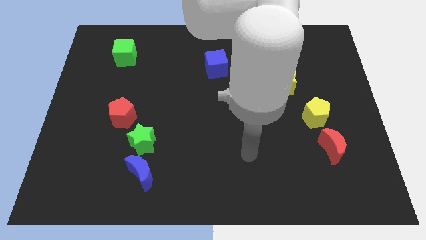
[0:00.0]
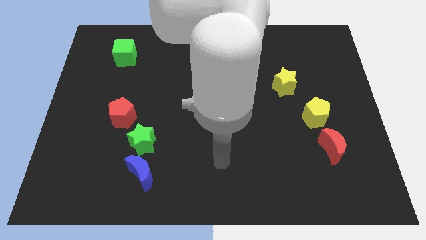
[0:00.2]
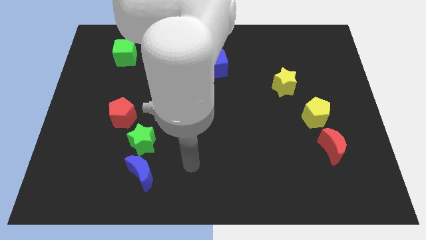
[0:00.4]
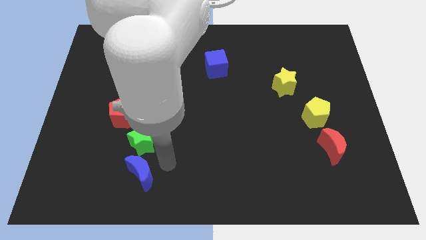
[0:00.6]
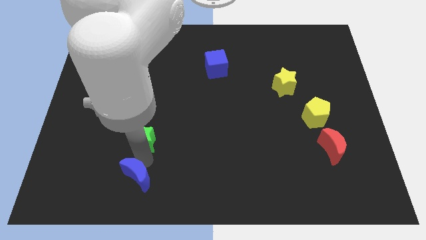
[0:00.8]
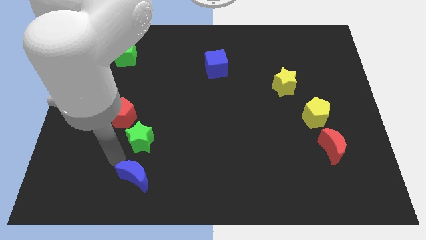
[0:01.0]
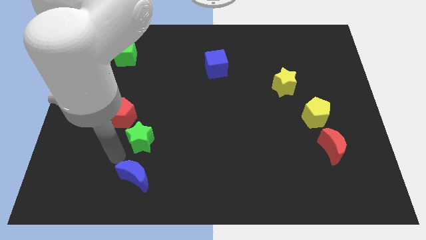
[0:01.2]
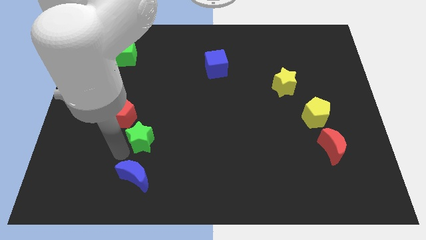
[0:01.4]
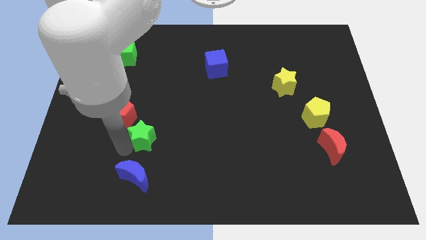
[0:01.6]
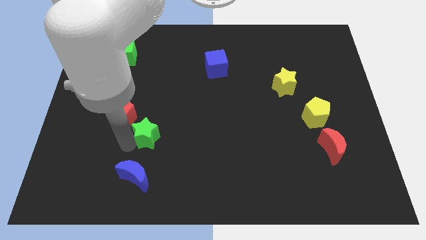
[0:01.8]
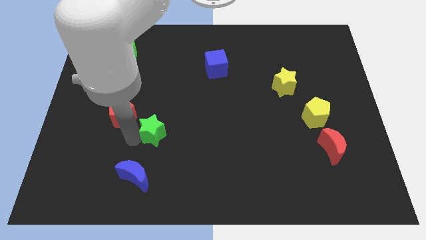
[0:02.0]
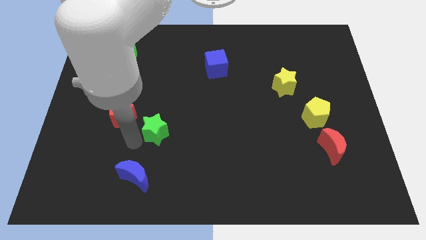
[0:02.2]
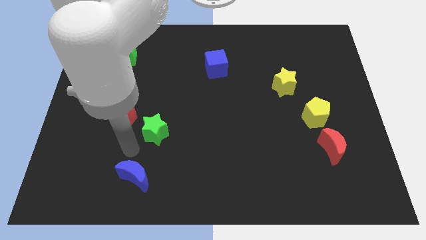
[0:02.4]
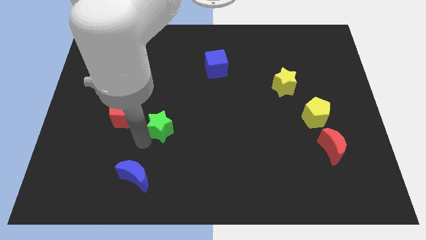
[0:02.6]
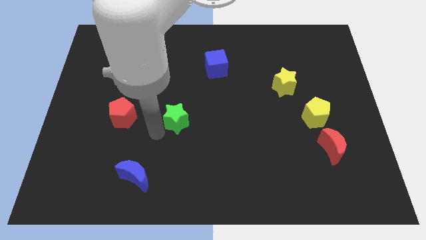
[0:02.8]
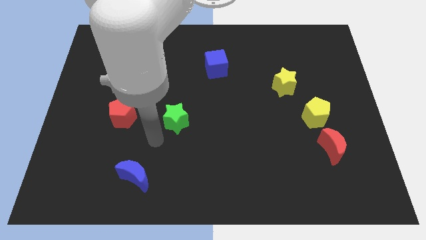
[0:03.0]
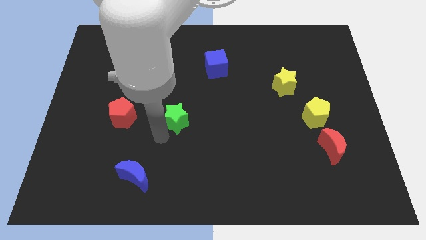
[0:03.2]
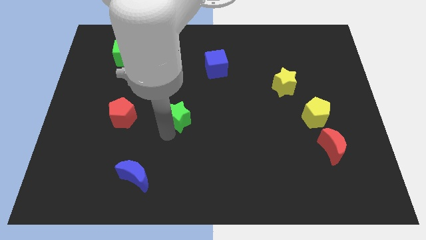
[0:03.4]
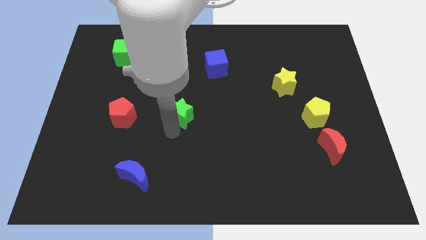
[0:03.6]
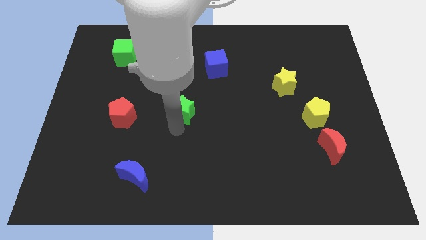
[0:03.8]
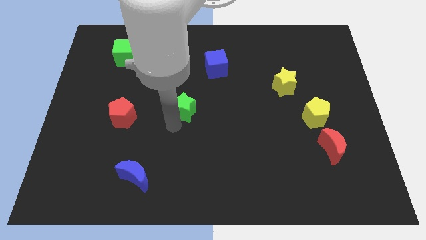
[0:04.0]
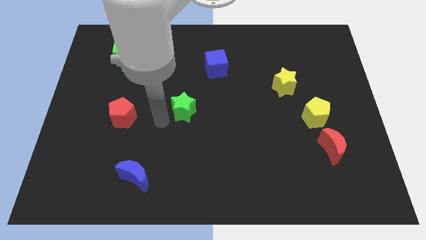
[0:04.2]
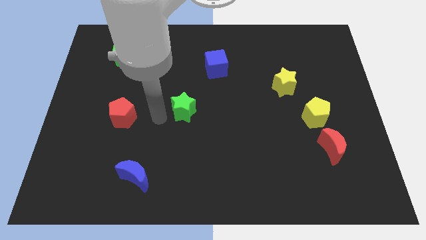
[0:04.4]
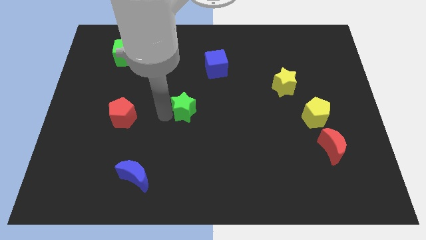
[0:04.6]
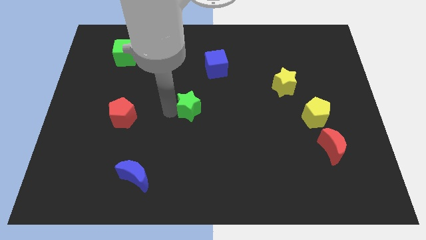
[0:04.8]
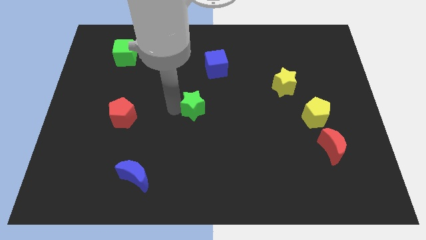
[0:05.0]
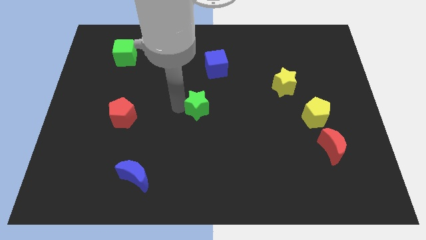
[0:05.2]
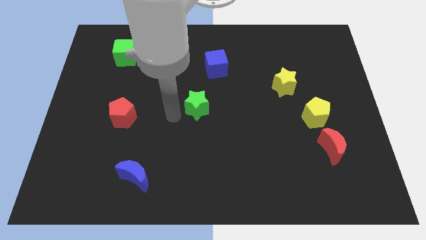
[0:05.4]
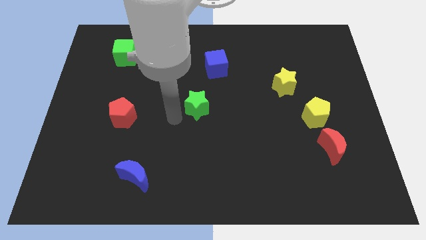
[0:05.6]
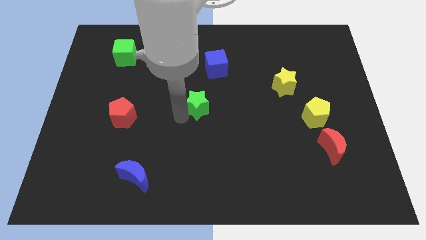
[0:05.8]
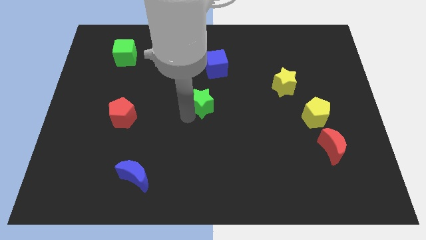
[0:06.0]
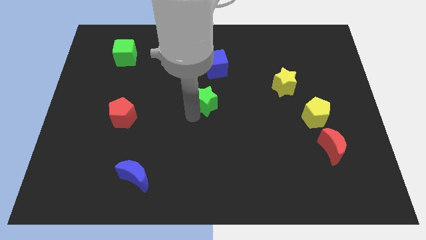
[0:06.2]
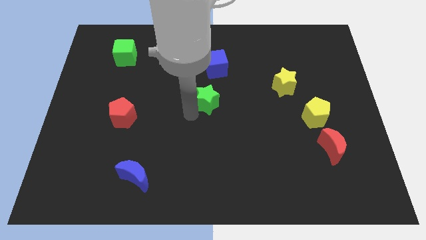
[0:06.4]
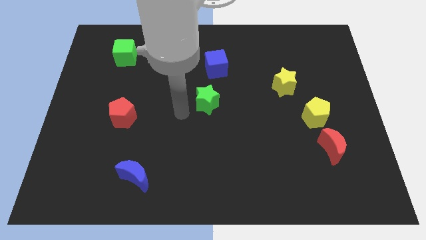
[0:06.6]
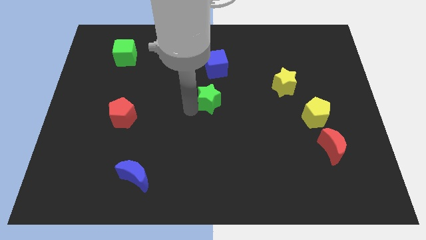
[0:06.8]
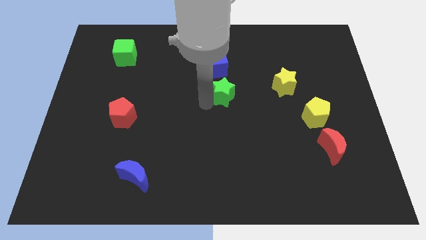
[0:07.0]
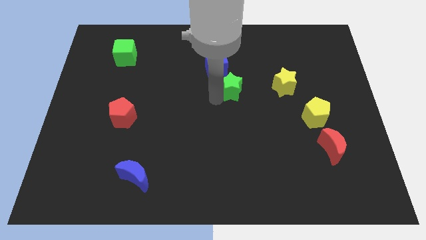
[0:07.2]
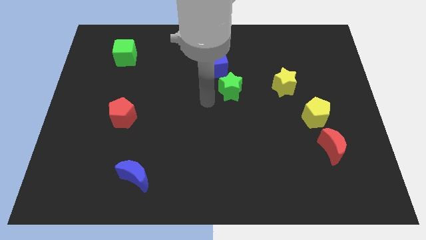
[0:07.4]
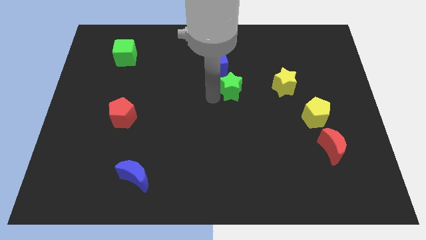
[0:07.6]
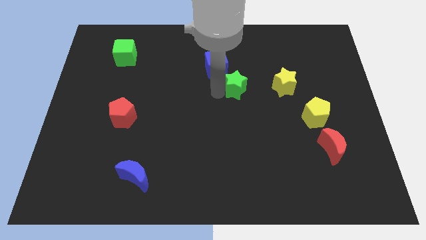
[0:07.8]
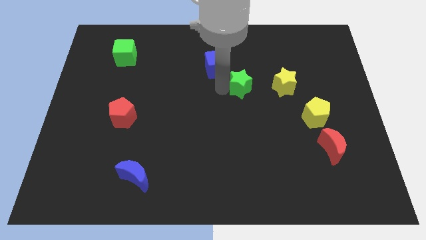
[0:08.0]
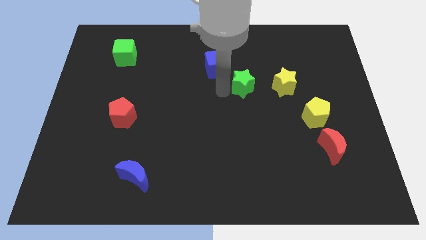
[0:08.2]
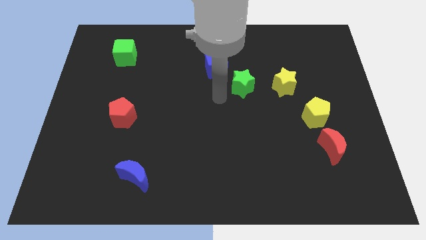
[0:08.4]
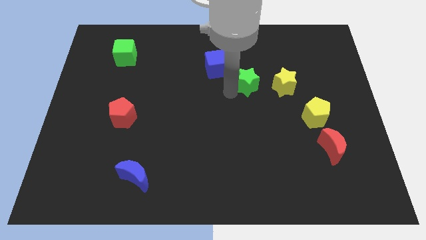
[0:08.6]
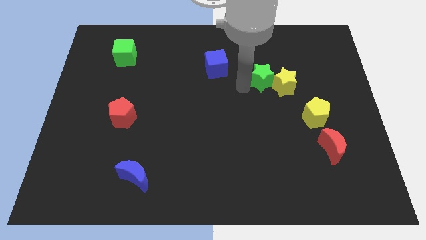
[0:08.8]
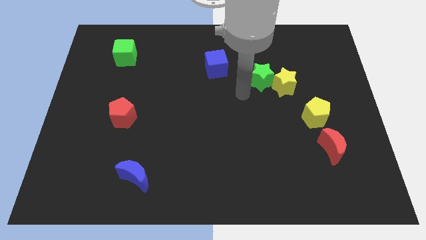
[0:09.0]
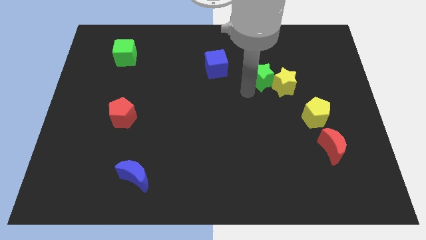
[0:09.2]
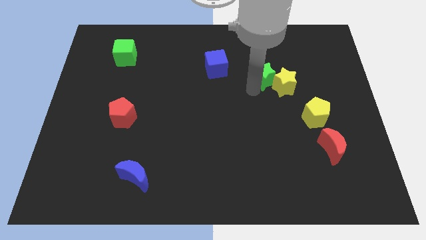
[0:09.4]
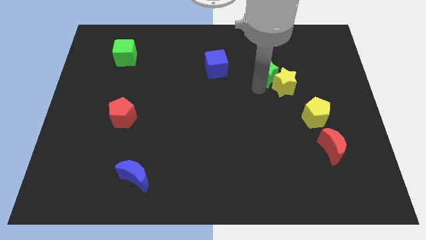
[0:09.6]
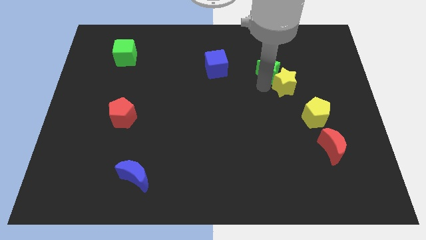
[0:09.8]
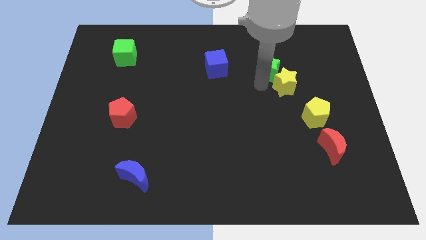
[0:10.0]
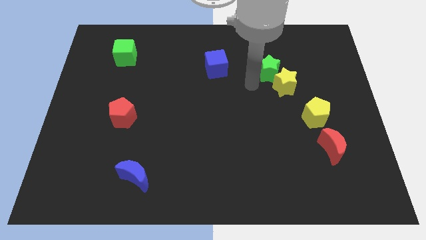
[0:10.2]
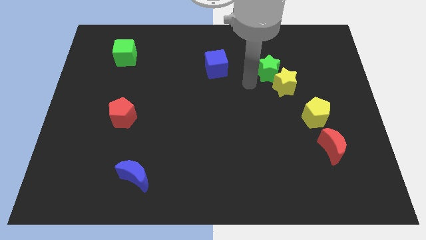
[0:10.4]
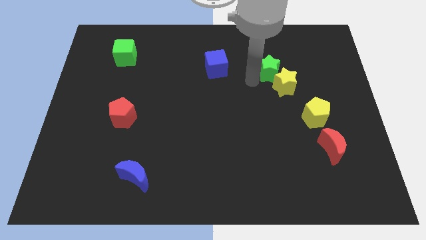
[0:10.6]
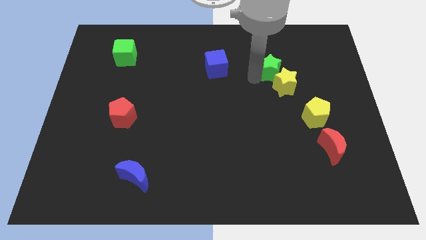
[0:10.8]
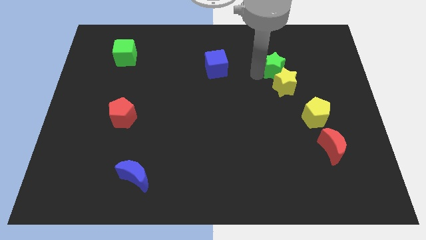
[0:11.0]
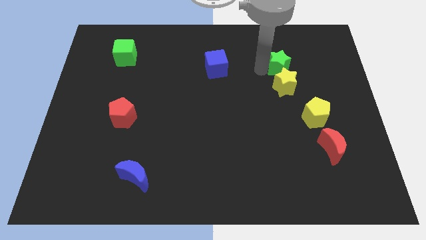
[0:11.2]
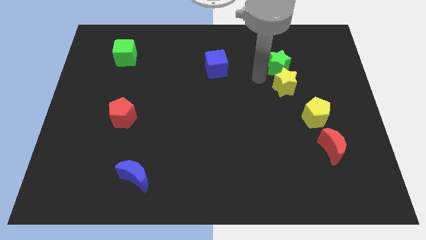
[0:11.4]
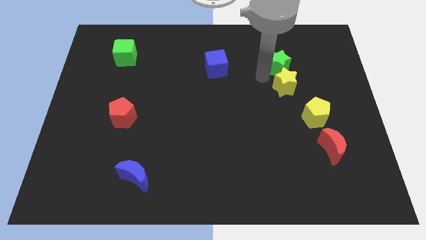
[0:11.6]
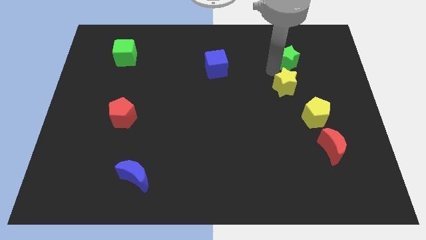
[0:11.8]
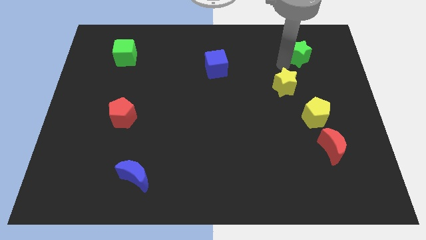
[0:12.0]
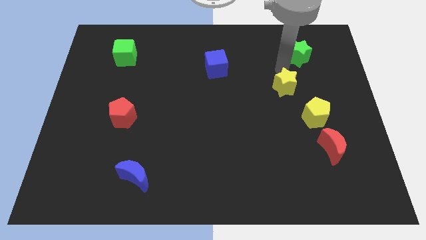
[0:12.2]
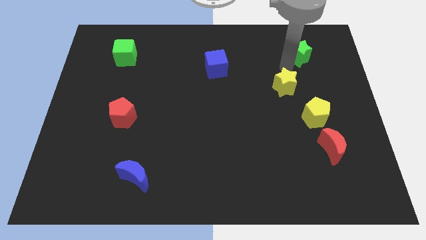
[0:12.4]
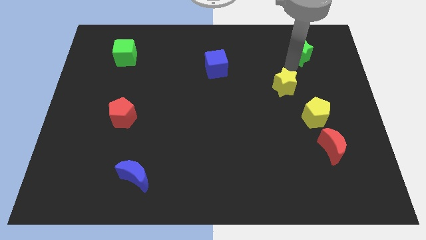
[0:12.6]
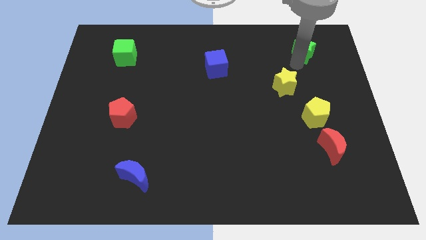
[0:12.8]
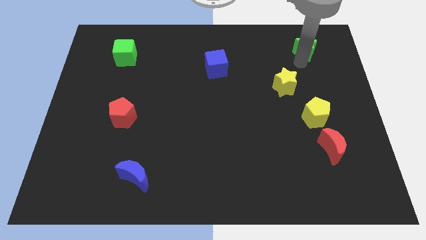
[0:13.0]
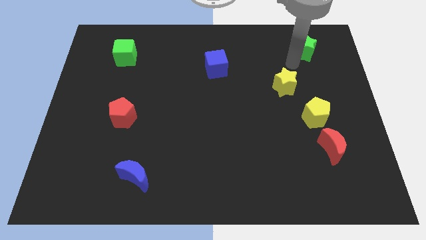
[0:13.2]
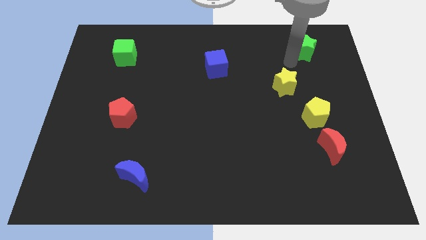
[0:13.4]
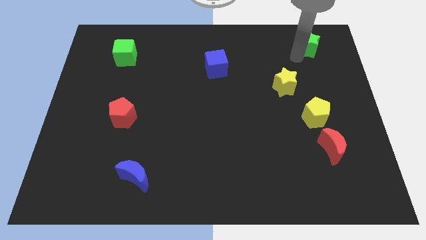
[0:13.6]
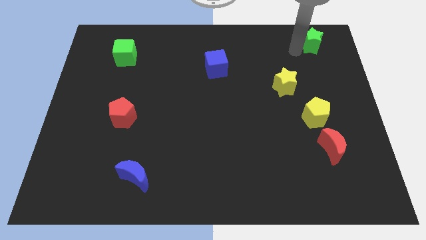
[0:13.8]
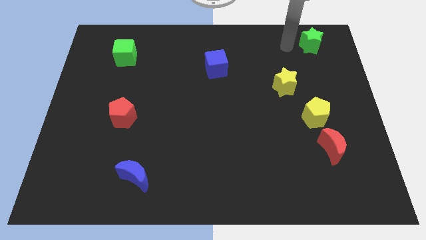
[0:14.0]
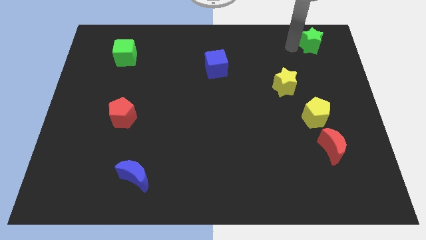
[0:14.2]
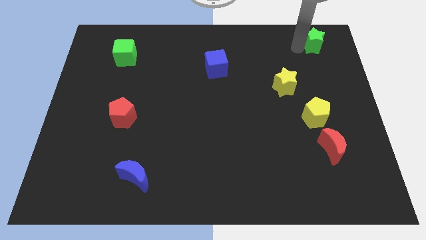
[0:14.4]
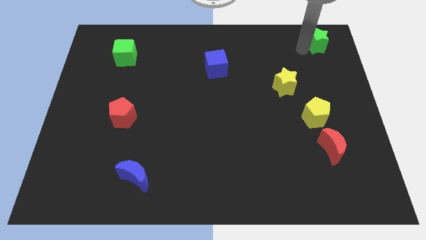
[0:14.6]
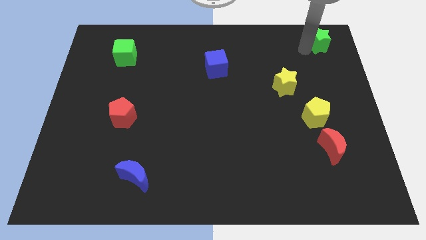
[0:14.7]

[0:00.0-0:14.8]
push the green star to the upper right corner
